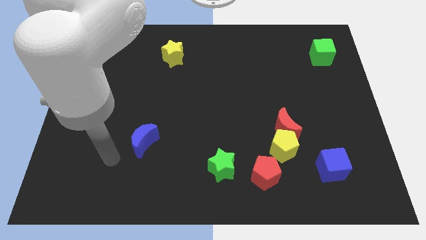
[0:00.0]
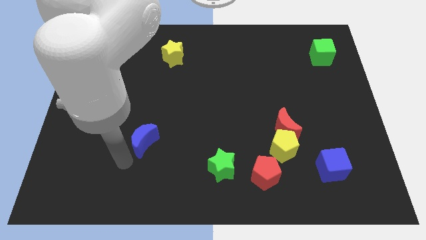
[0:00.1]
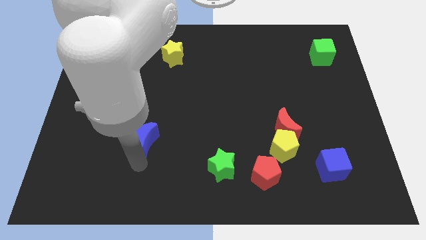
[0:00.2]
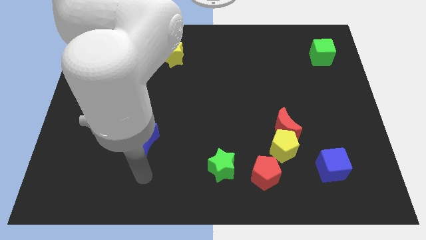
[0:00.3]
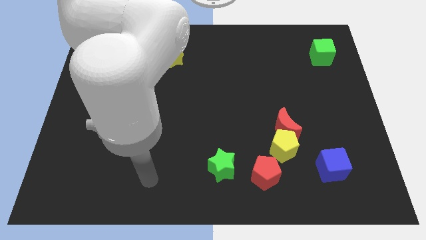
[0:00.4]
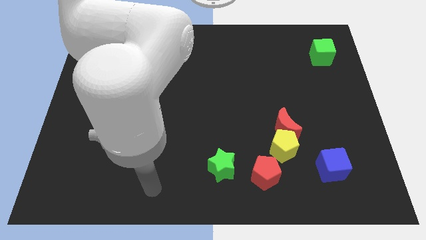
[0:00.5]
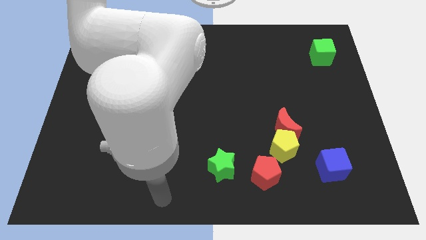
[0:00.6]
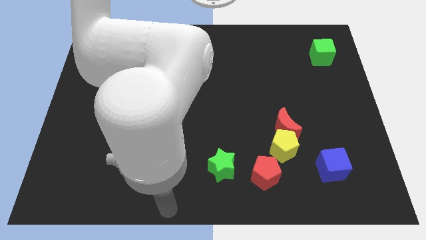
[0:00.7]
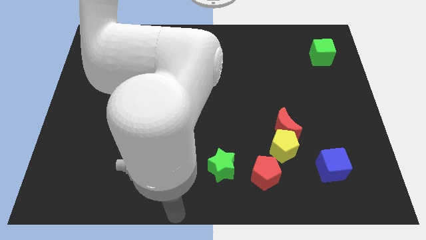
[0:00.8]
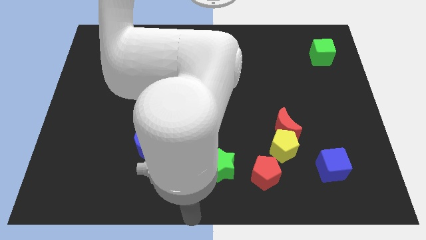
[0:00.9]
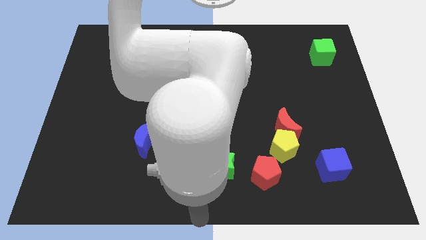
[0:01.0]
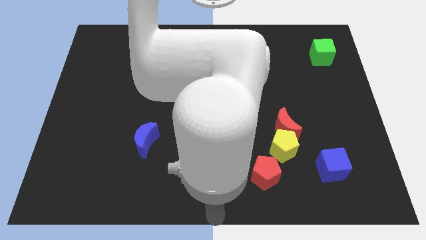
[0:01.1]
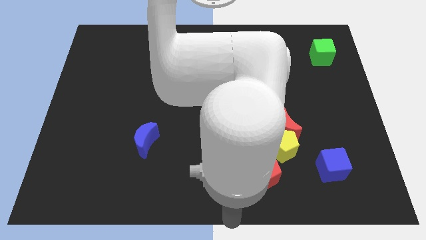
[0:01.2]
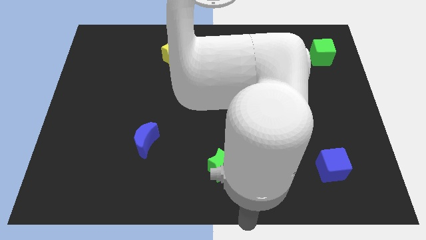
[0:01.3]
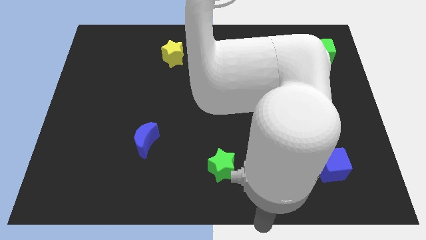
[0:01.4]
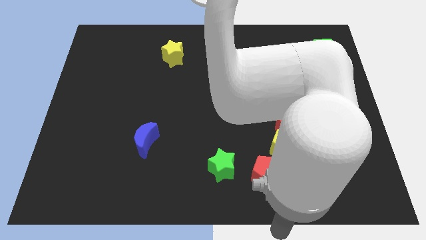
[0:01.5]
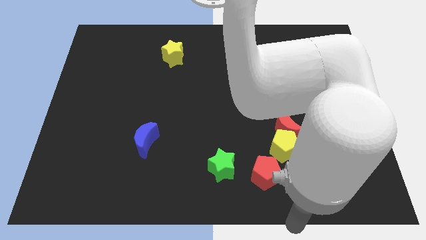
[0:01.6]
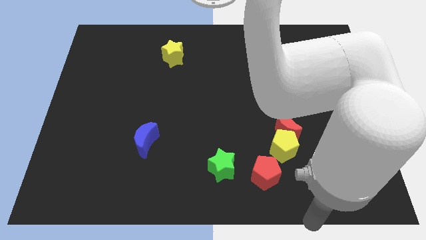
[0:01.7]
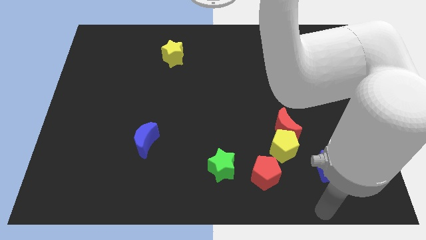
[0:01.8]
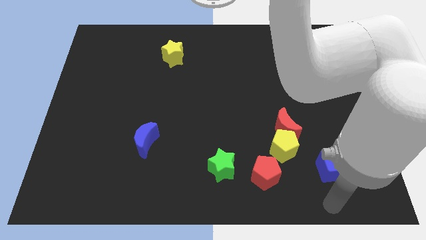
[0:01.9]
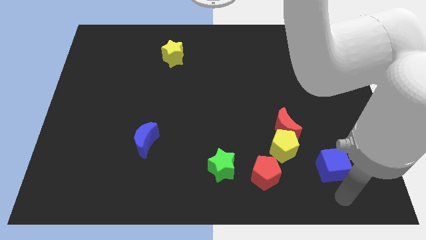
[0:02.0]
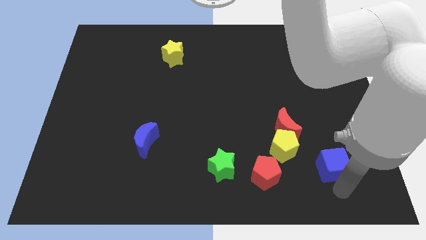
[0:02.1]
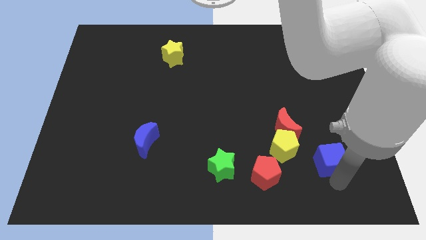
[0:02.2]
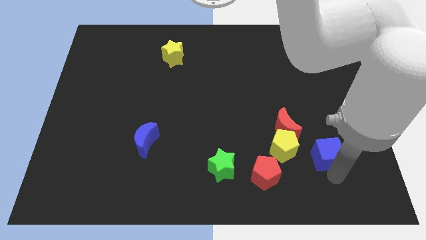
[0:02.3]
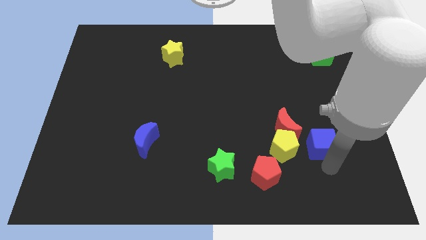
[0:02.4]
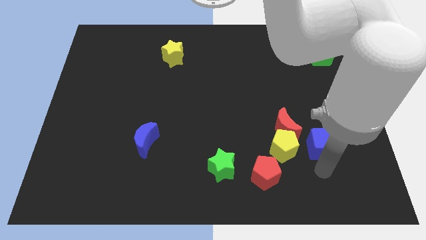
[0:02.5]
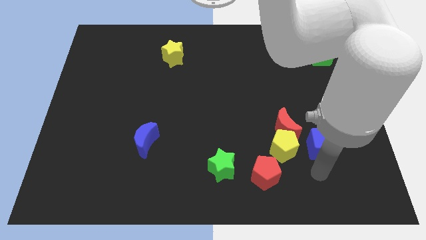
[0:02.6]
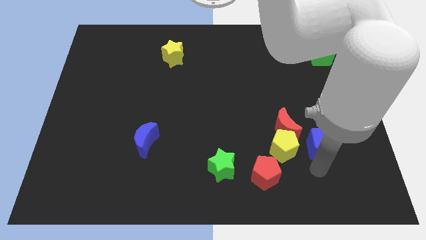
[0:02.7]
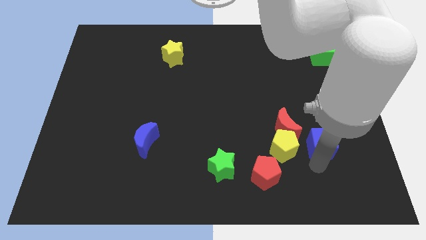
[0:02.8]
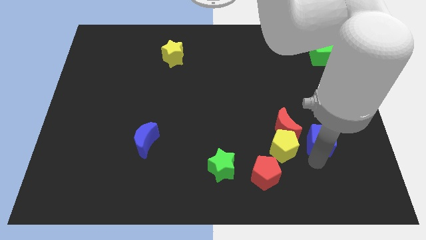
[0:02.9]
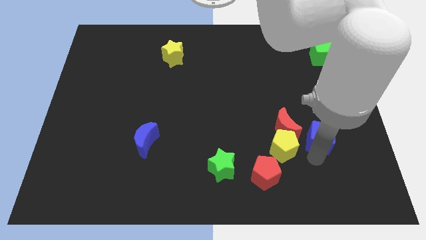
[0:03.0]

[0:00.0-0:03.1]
slide the blue cube up a bit

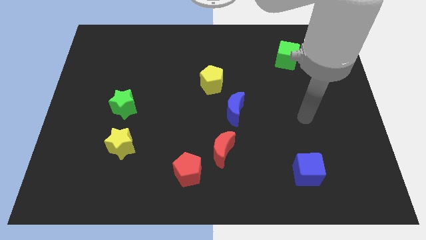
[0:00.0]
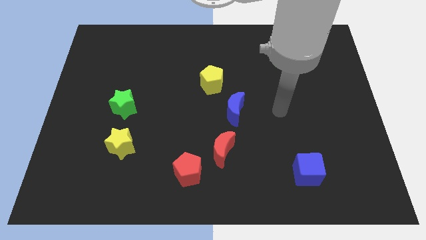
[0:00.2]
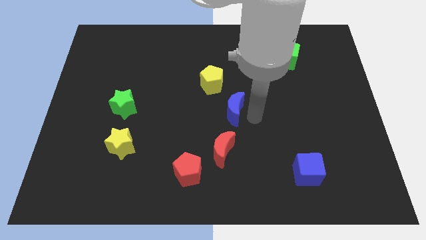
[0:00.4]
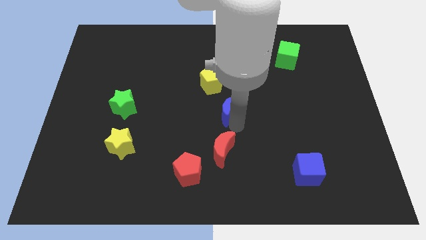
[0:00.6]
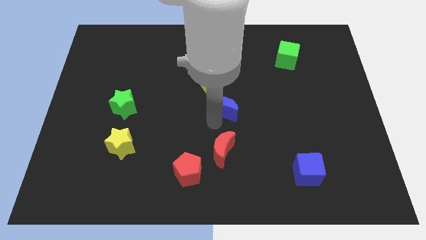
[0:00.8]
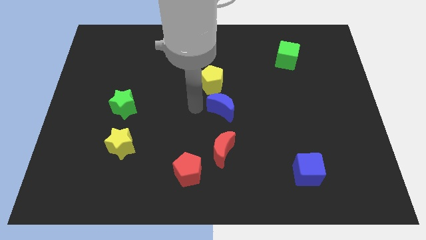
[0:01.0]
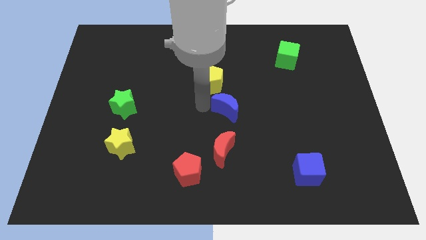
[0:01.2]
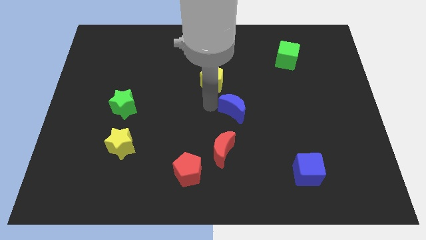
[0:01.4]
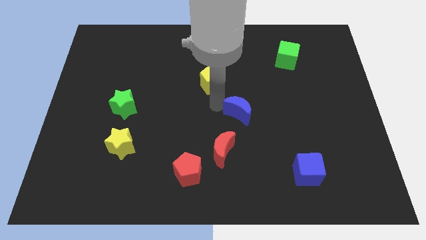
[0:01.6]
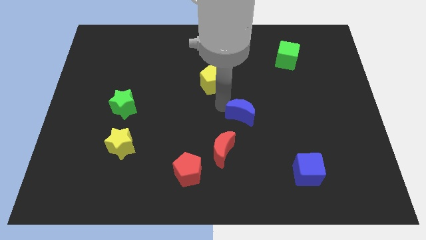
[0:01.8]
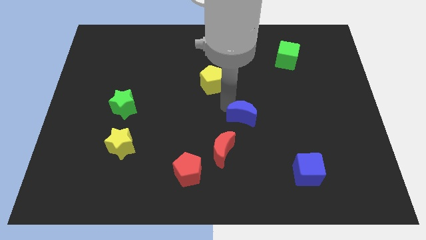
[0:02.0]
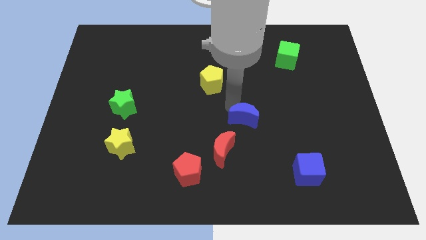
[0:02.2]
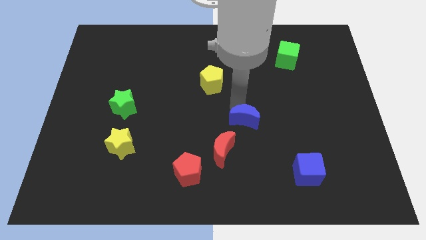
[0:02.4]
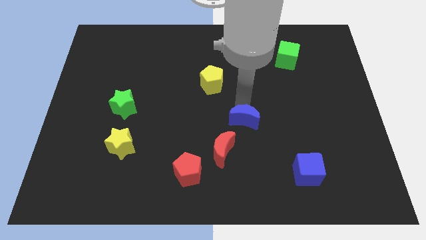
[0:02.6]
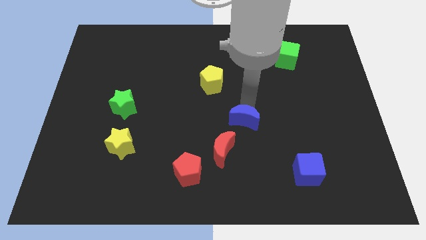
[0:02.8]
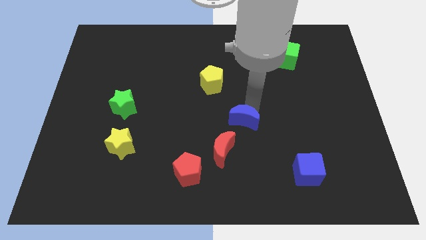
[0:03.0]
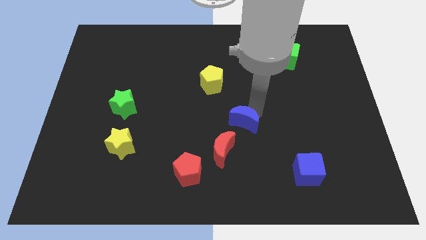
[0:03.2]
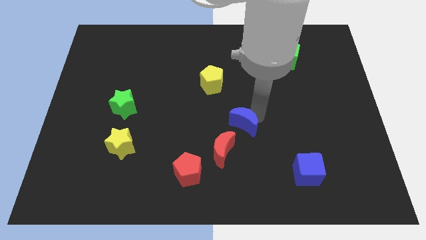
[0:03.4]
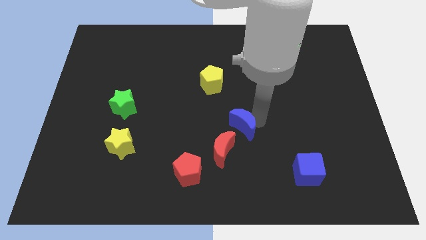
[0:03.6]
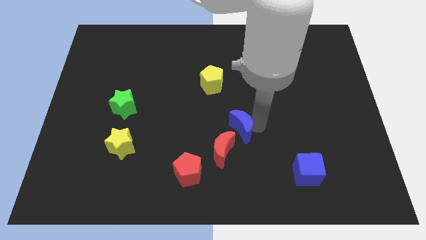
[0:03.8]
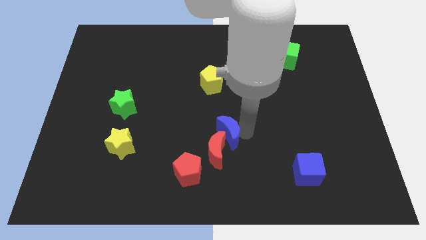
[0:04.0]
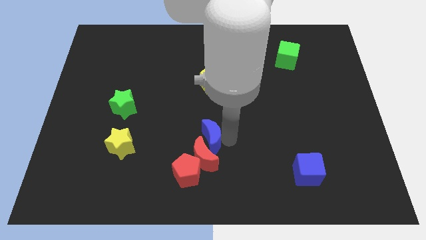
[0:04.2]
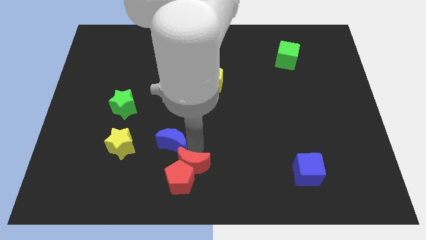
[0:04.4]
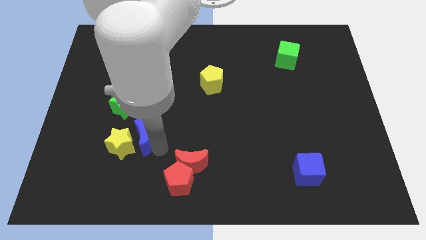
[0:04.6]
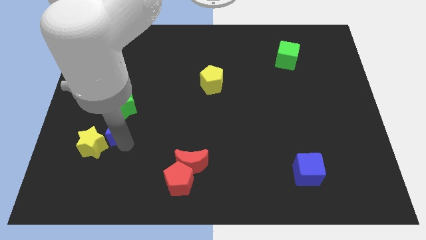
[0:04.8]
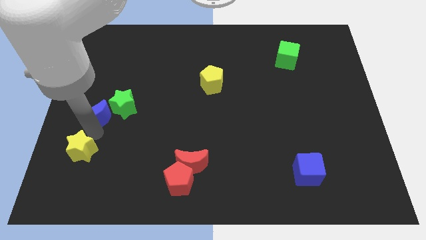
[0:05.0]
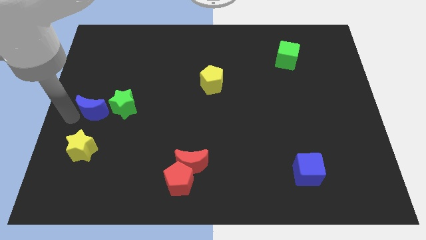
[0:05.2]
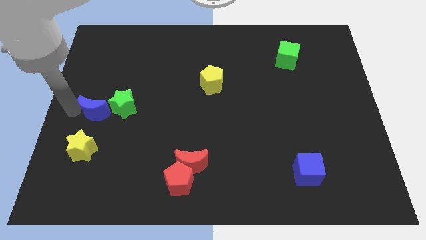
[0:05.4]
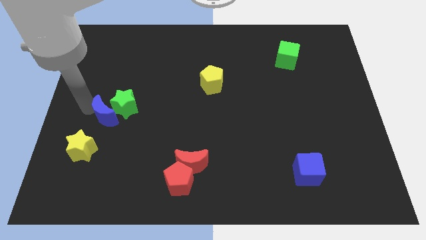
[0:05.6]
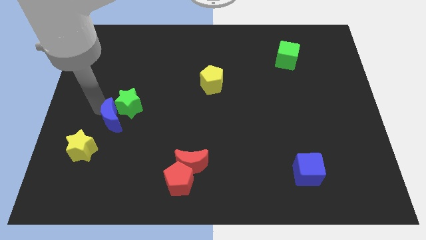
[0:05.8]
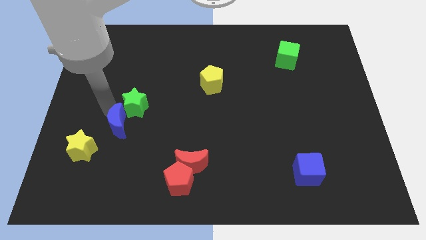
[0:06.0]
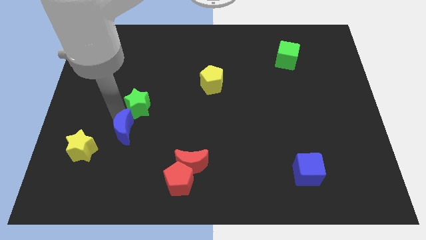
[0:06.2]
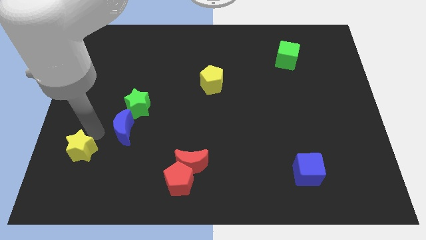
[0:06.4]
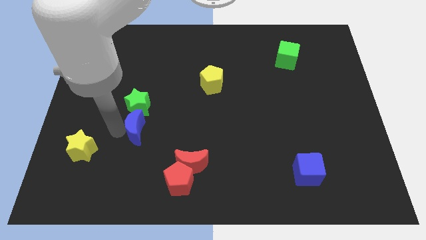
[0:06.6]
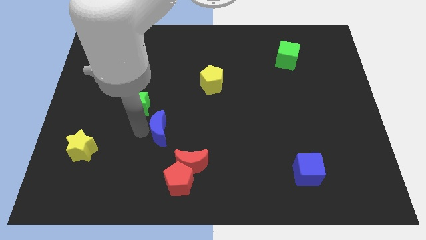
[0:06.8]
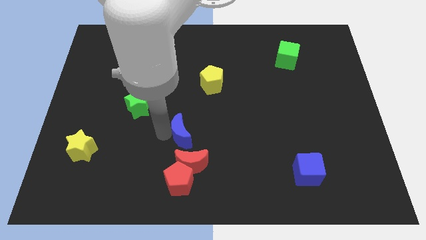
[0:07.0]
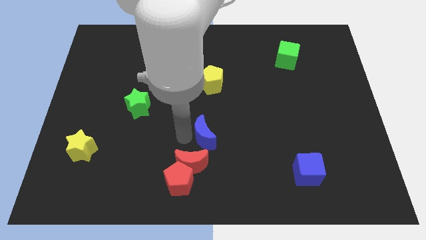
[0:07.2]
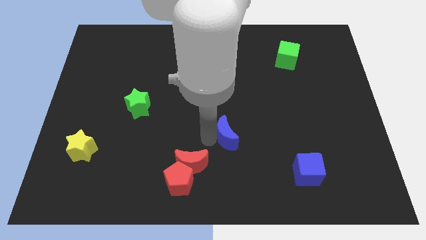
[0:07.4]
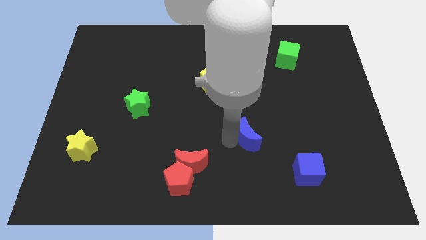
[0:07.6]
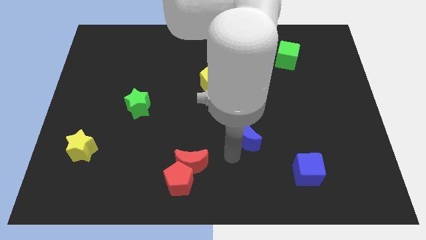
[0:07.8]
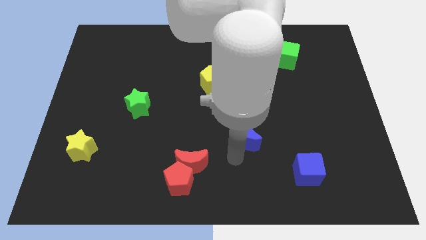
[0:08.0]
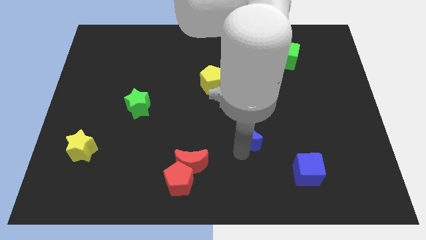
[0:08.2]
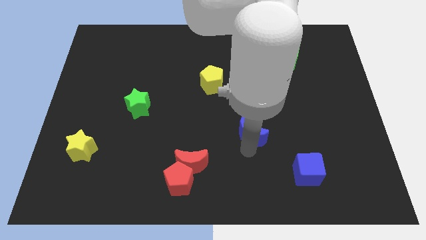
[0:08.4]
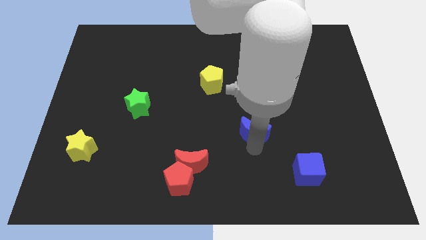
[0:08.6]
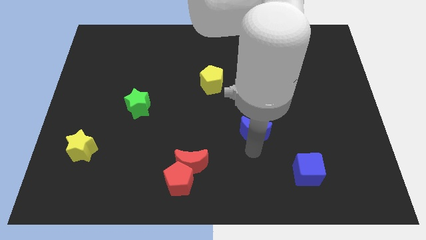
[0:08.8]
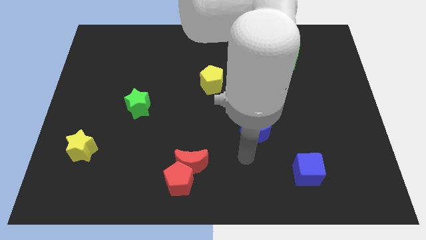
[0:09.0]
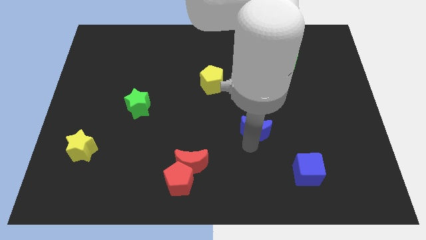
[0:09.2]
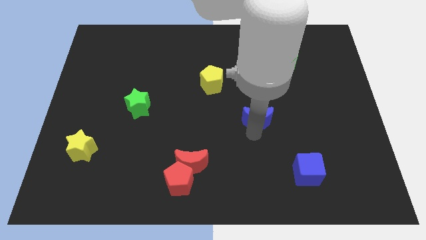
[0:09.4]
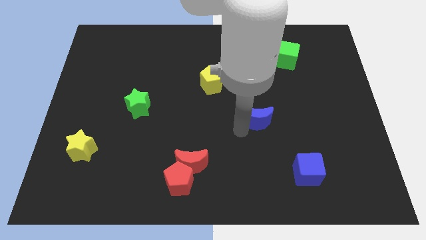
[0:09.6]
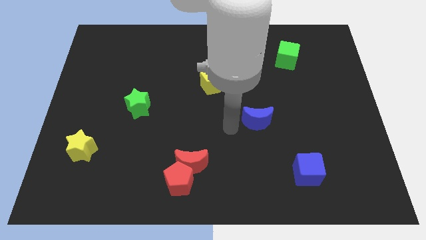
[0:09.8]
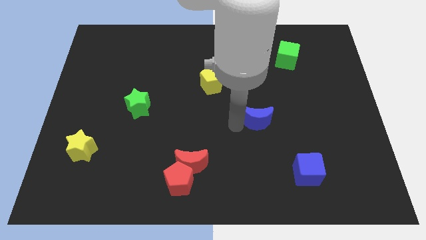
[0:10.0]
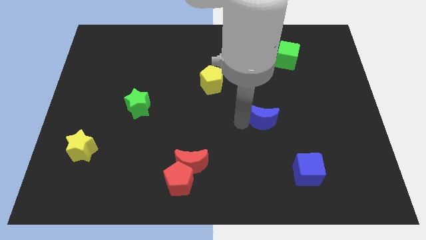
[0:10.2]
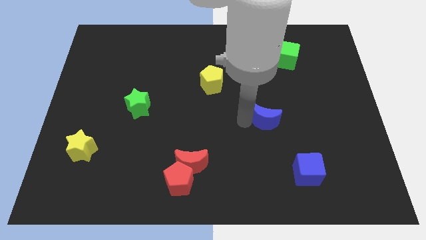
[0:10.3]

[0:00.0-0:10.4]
push the blue moon to the right slightly
